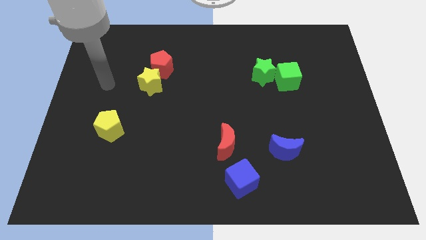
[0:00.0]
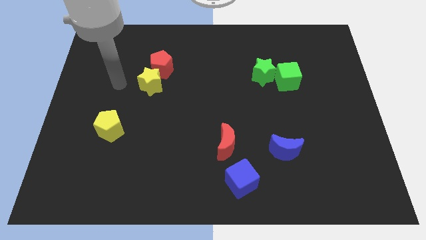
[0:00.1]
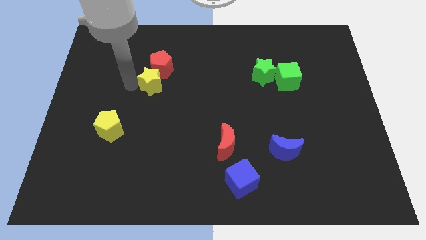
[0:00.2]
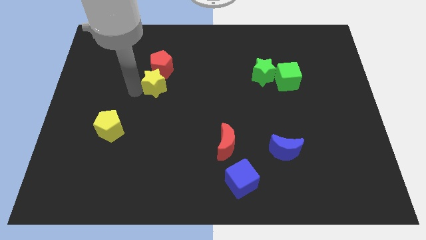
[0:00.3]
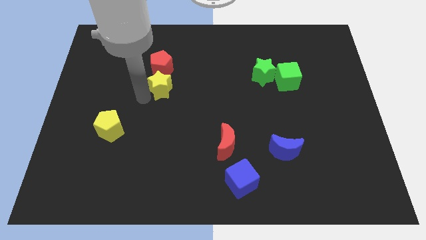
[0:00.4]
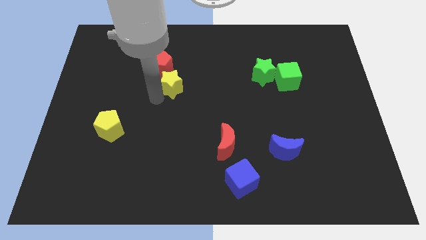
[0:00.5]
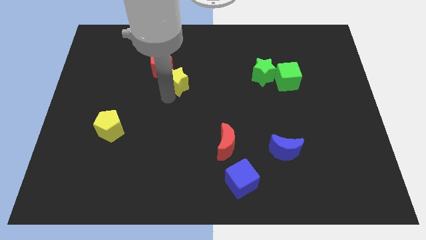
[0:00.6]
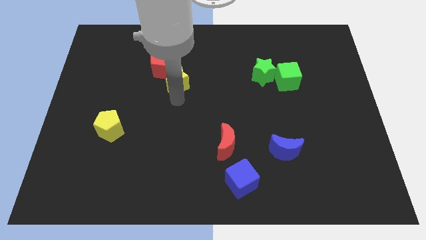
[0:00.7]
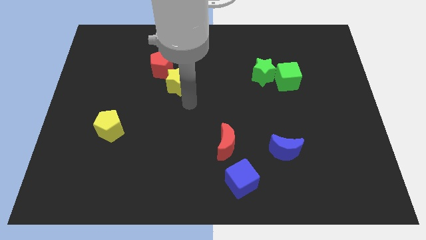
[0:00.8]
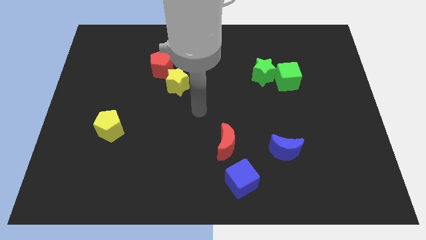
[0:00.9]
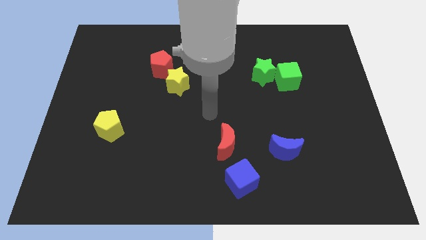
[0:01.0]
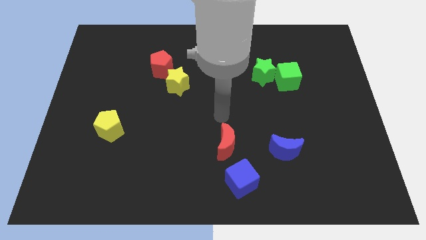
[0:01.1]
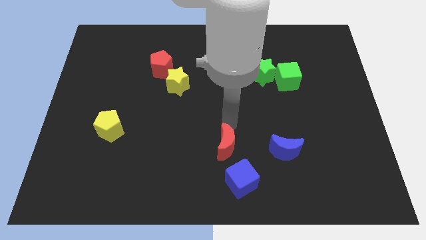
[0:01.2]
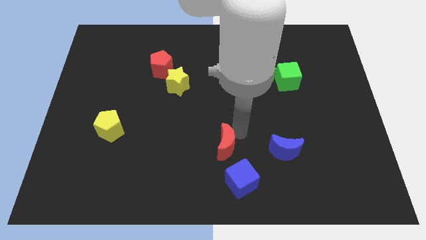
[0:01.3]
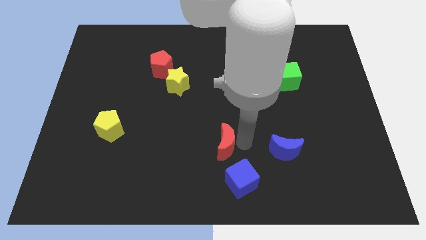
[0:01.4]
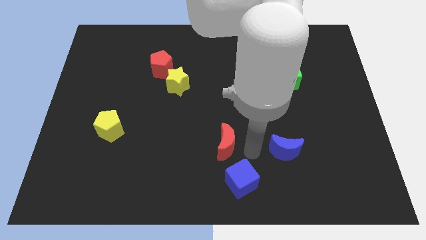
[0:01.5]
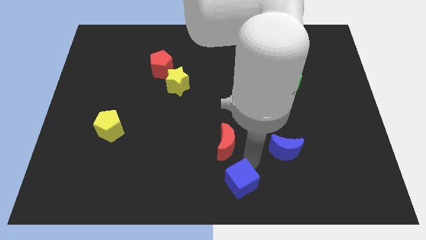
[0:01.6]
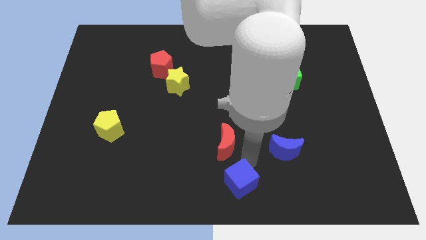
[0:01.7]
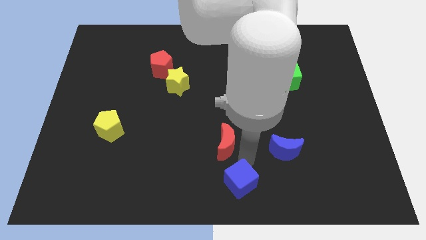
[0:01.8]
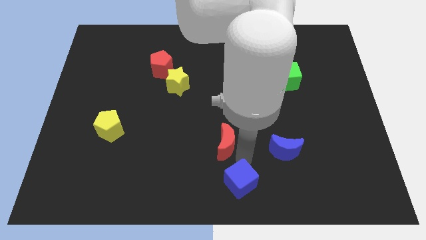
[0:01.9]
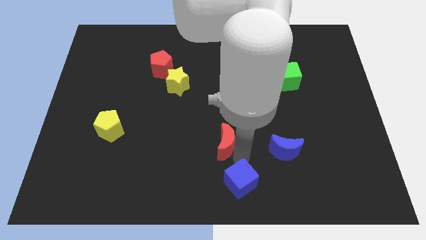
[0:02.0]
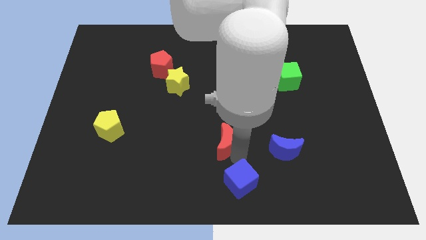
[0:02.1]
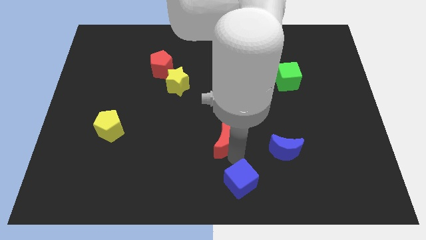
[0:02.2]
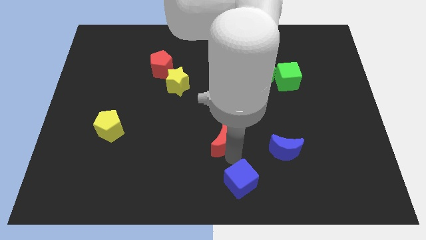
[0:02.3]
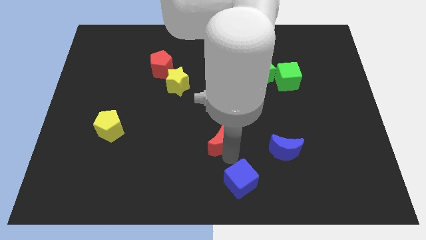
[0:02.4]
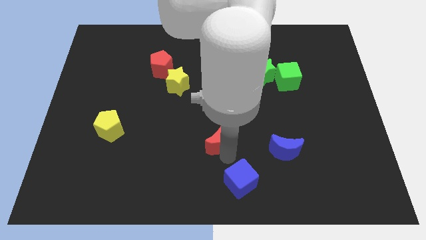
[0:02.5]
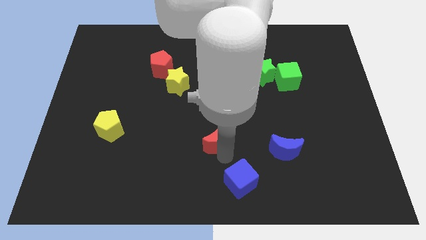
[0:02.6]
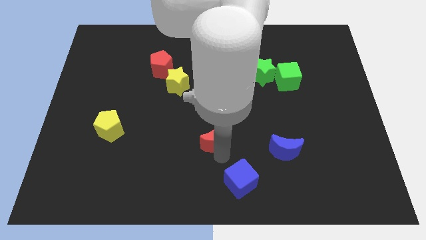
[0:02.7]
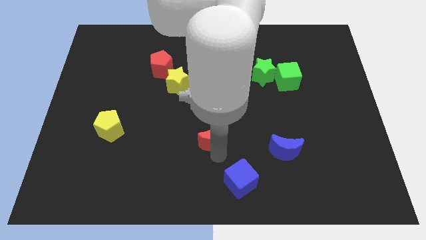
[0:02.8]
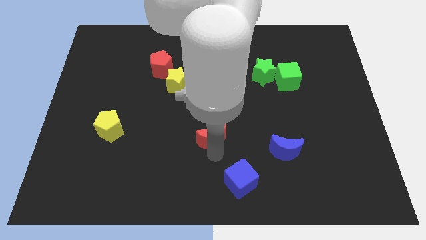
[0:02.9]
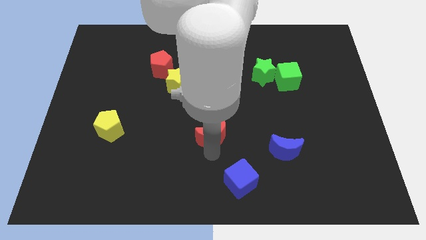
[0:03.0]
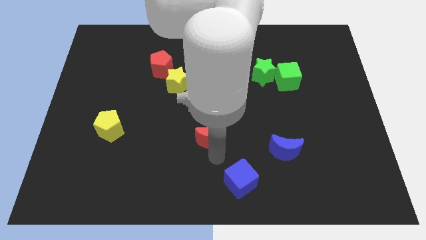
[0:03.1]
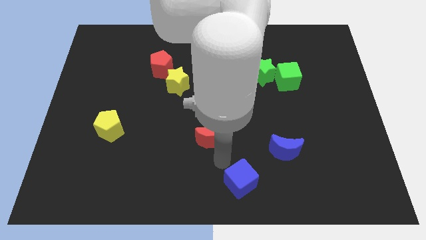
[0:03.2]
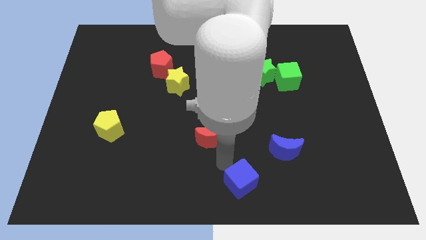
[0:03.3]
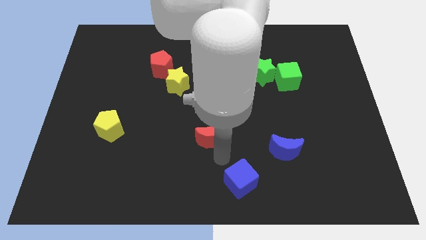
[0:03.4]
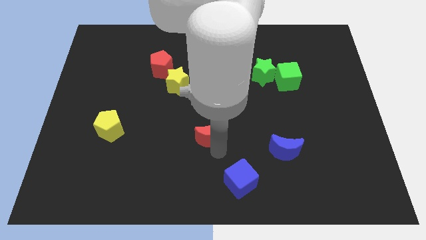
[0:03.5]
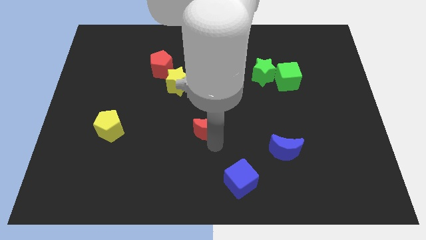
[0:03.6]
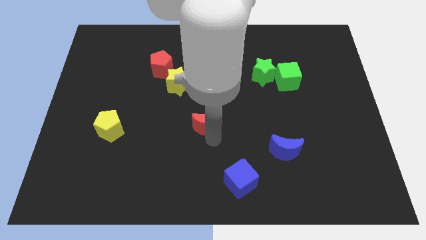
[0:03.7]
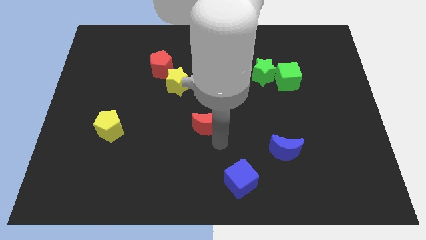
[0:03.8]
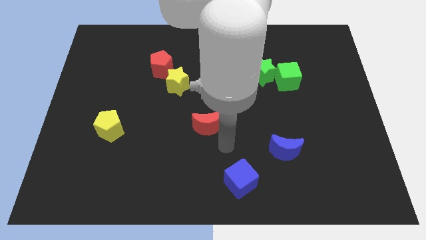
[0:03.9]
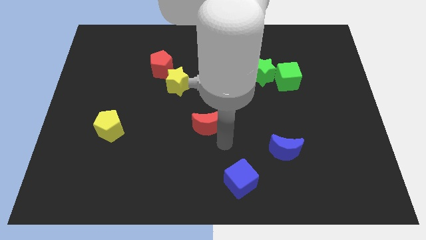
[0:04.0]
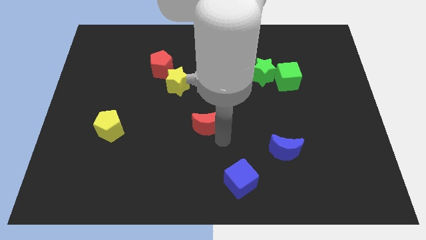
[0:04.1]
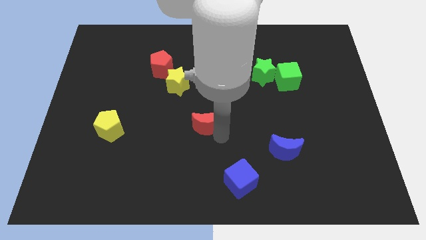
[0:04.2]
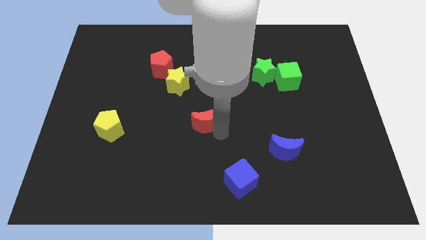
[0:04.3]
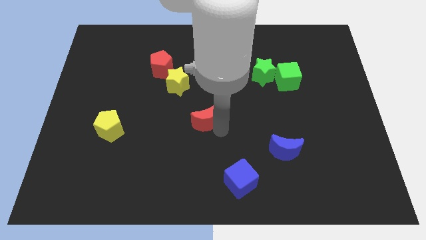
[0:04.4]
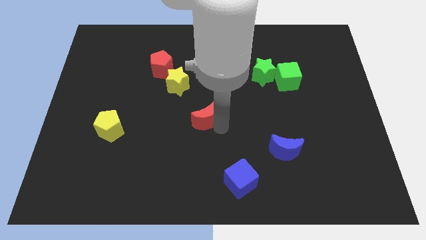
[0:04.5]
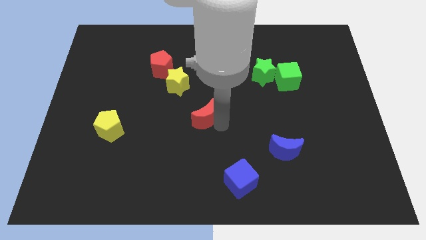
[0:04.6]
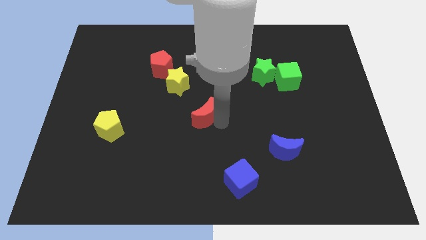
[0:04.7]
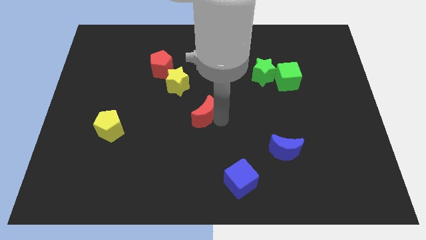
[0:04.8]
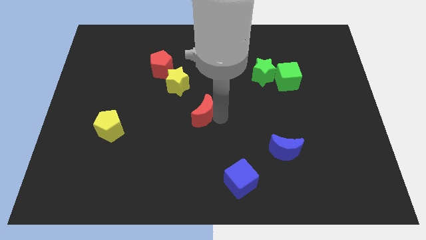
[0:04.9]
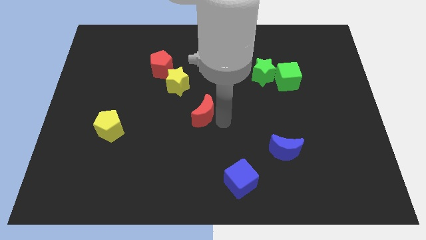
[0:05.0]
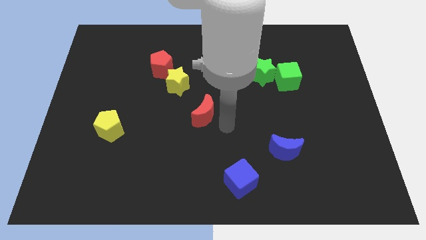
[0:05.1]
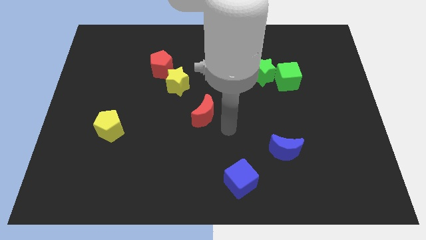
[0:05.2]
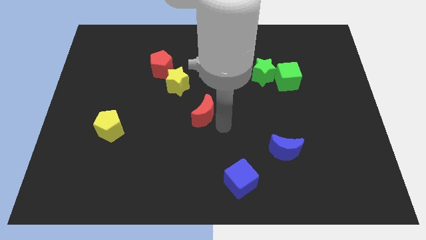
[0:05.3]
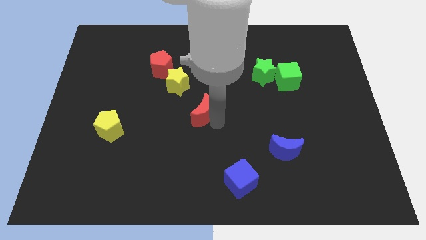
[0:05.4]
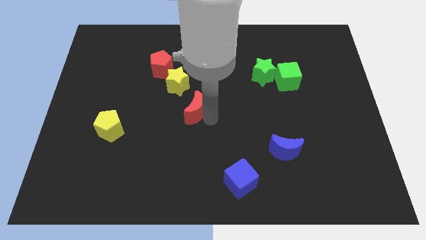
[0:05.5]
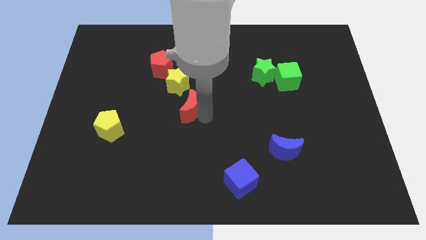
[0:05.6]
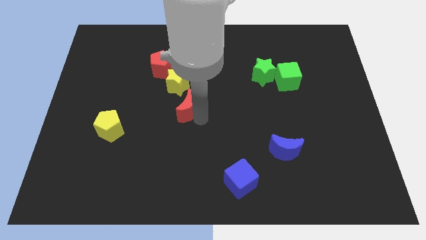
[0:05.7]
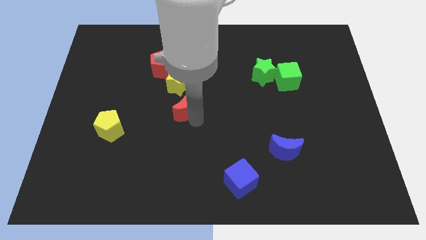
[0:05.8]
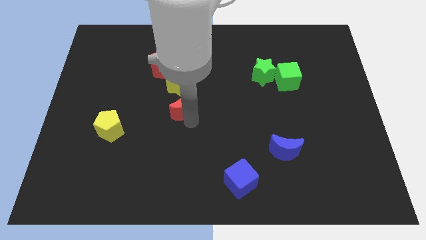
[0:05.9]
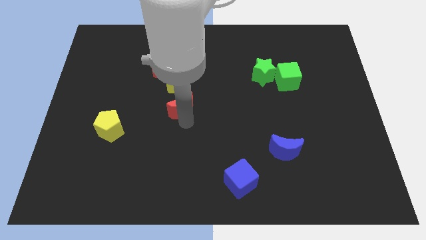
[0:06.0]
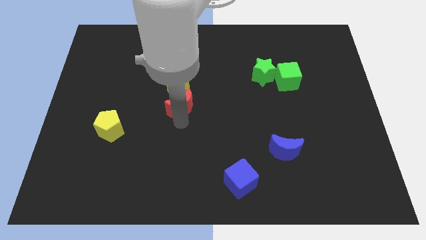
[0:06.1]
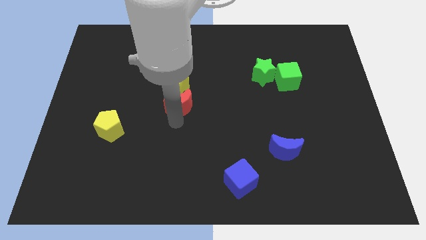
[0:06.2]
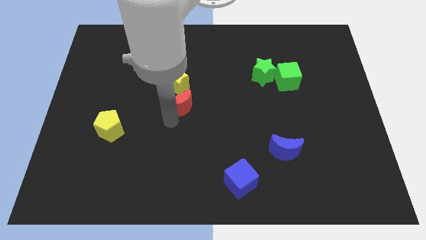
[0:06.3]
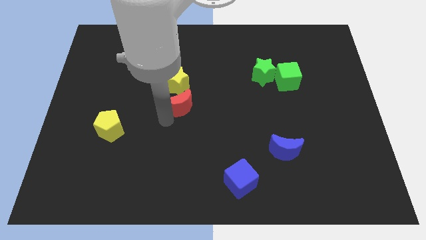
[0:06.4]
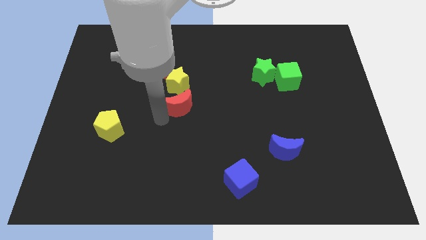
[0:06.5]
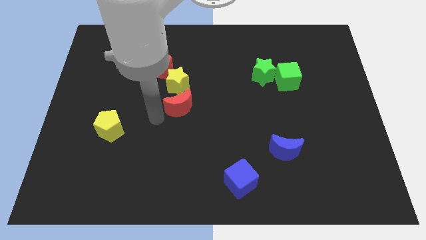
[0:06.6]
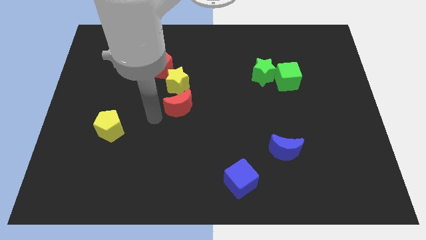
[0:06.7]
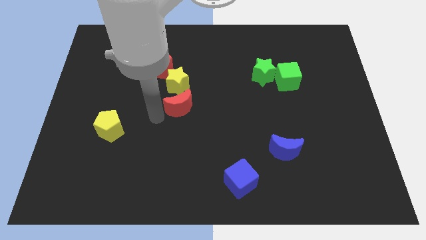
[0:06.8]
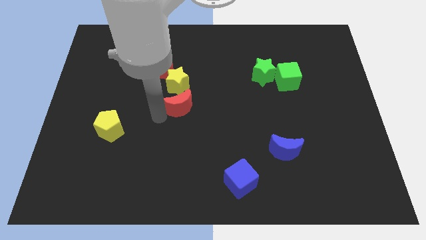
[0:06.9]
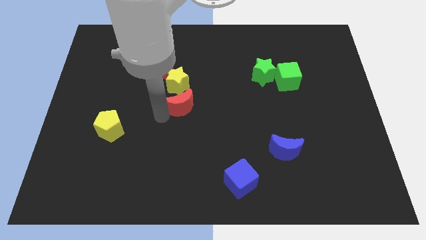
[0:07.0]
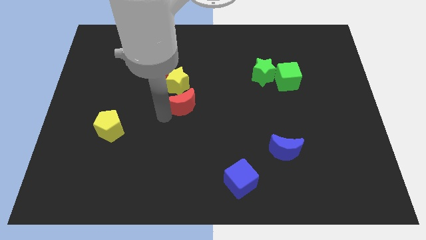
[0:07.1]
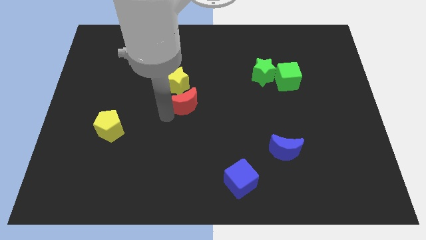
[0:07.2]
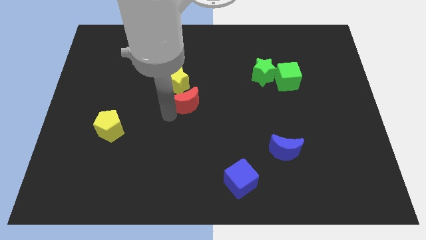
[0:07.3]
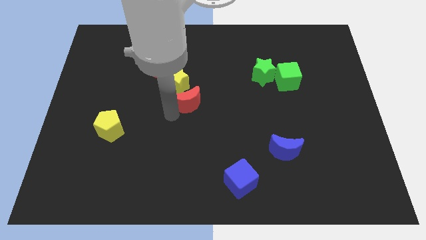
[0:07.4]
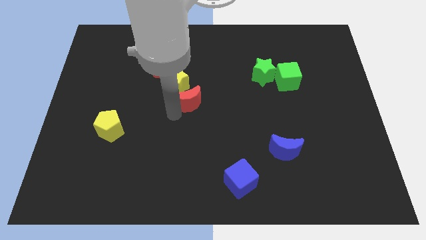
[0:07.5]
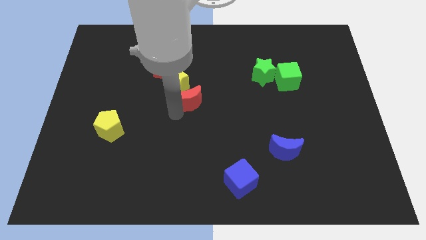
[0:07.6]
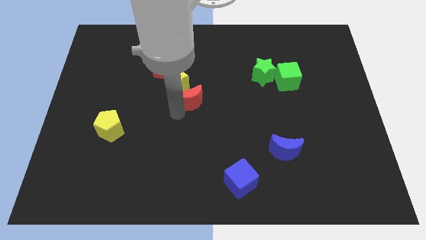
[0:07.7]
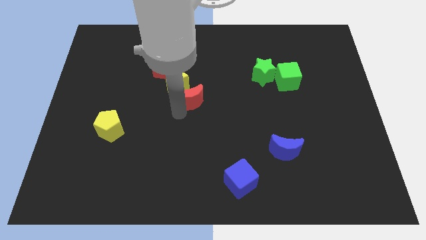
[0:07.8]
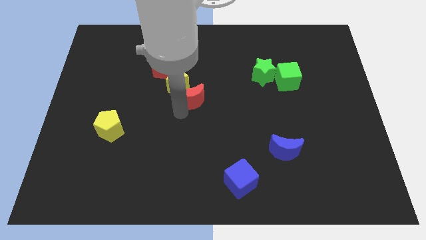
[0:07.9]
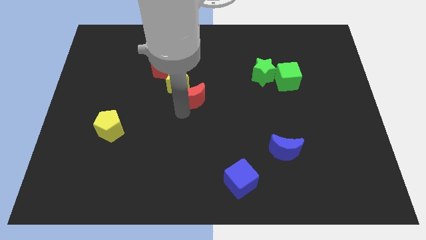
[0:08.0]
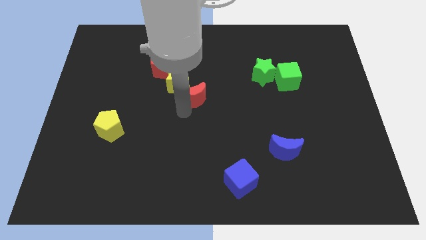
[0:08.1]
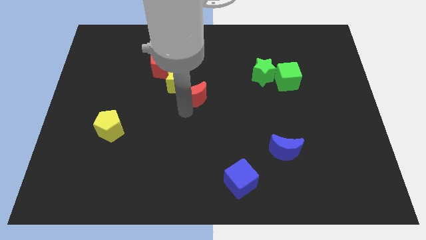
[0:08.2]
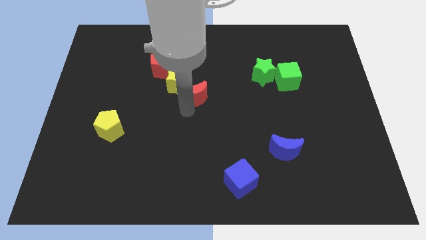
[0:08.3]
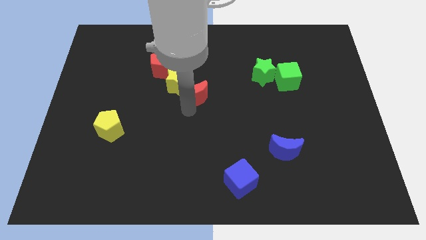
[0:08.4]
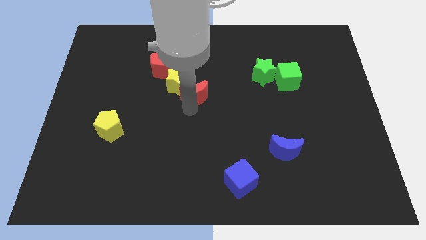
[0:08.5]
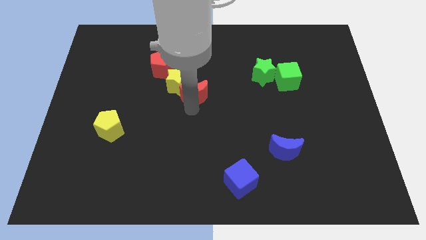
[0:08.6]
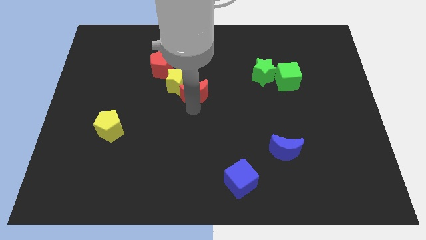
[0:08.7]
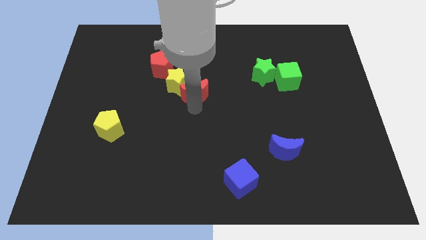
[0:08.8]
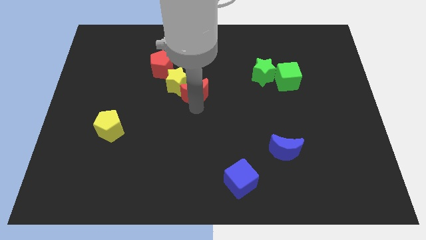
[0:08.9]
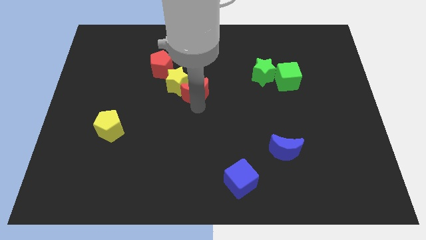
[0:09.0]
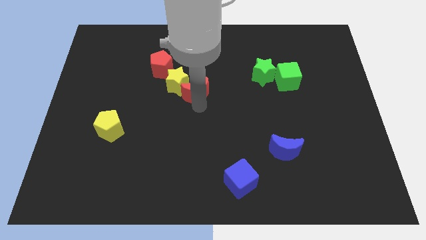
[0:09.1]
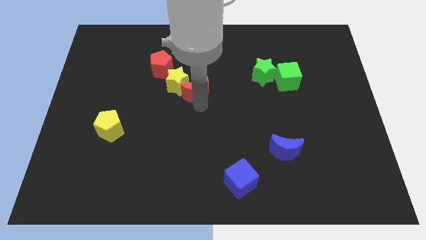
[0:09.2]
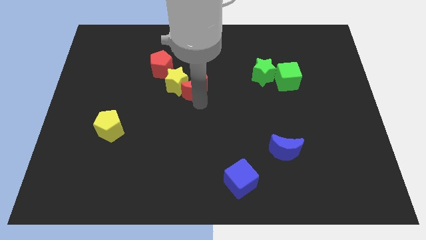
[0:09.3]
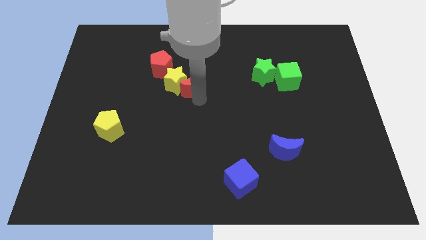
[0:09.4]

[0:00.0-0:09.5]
put the red moon to the bottom right side of the yellow star
